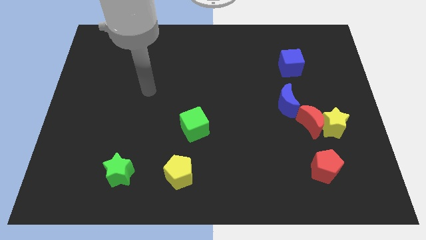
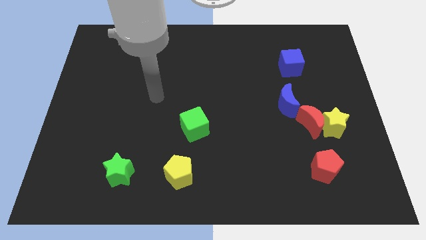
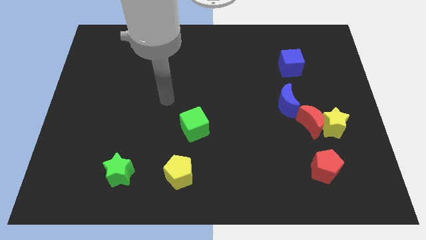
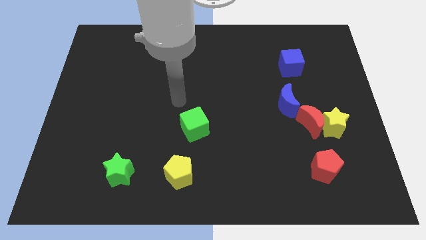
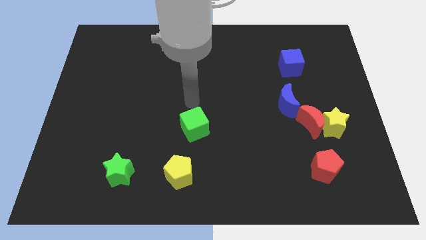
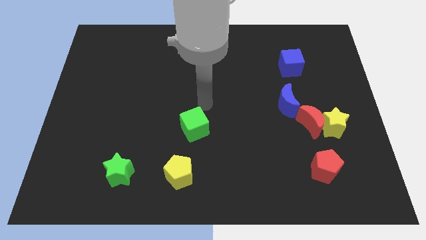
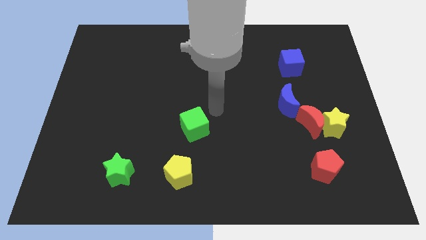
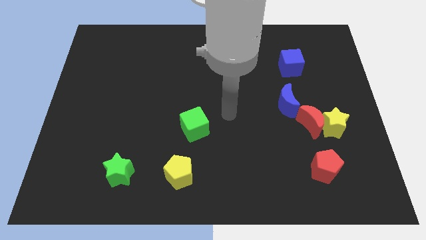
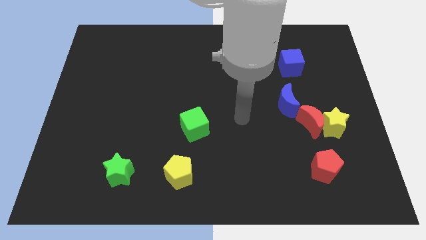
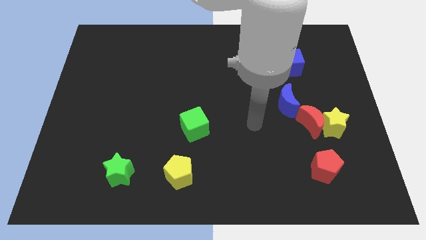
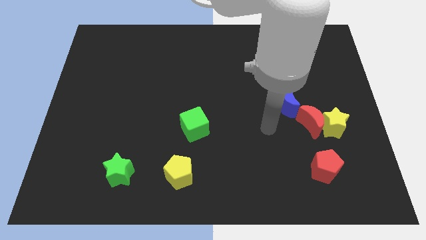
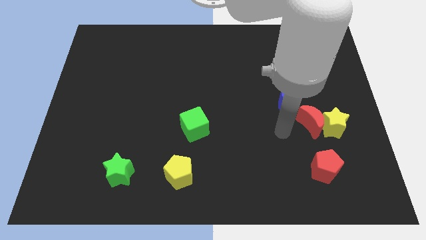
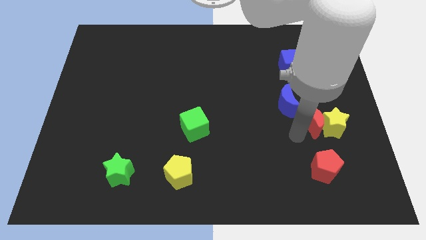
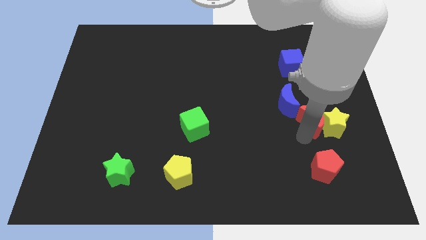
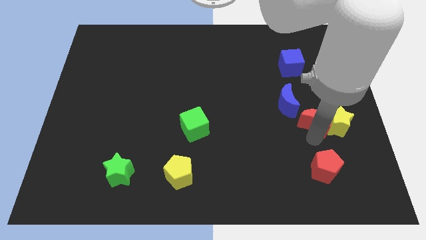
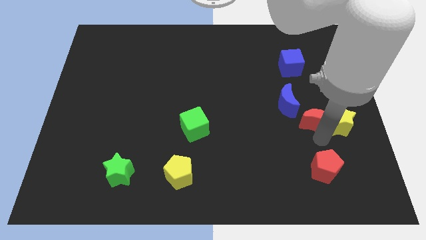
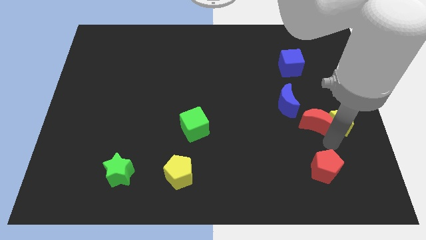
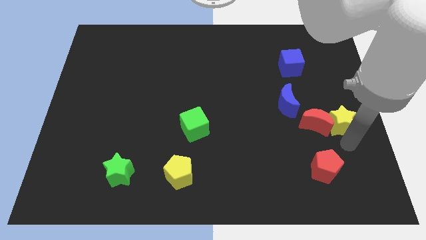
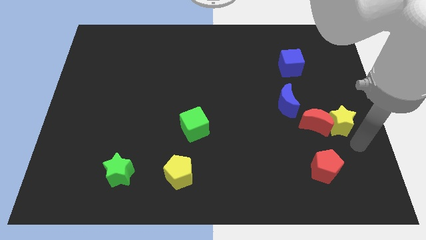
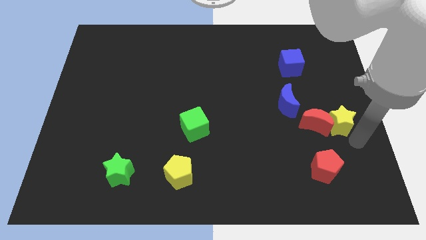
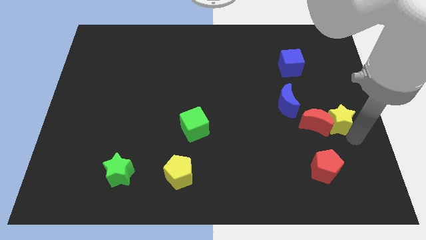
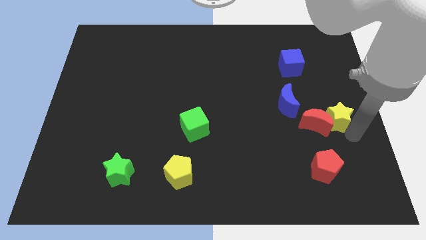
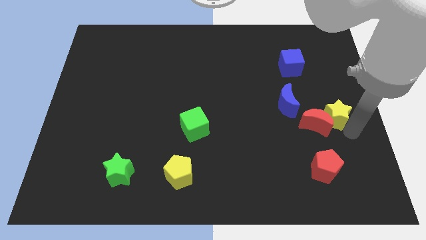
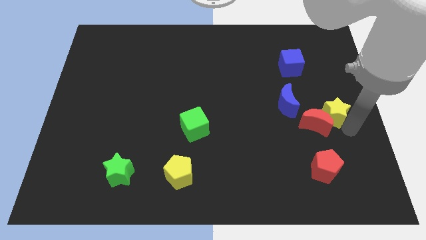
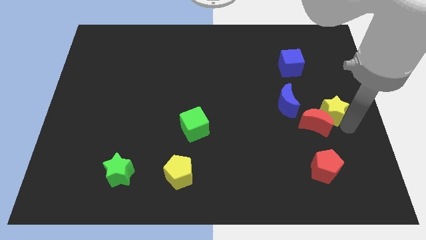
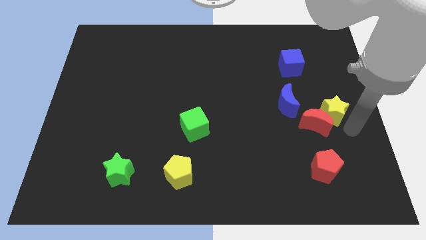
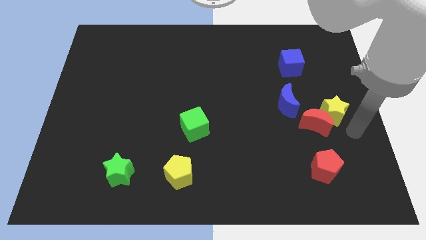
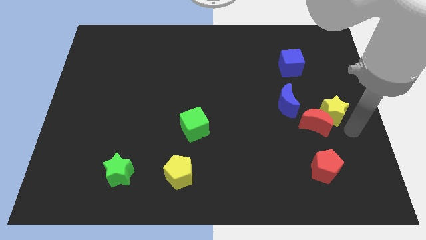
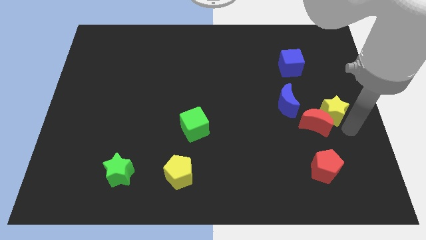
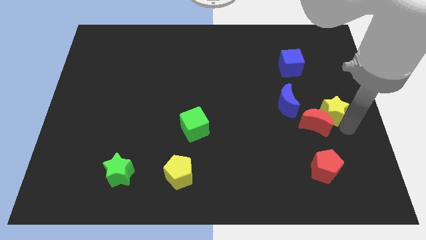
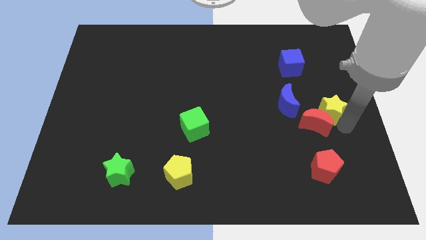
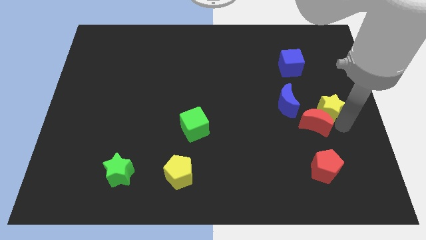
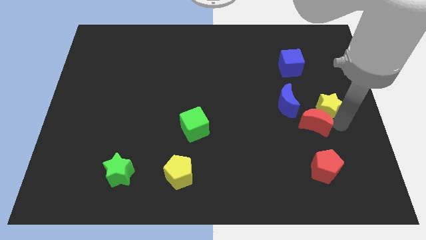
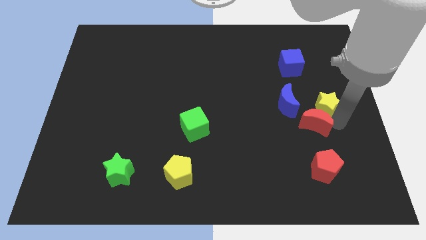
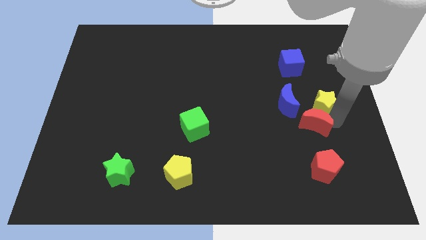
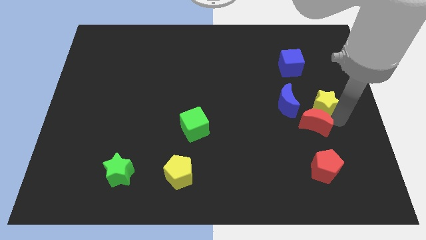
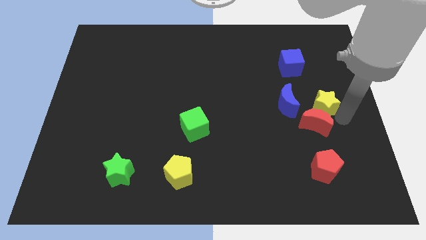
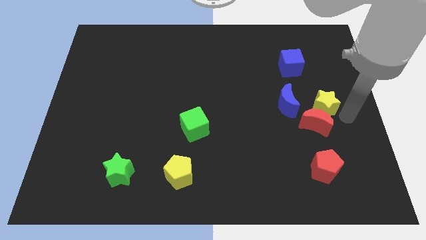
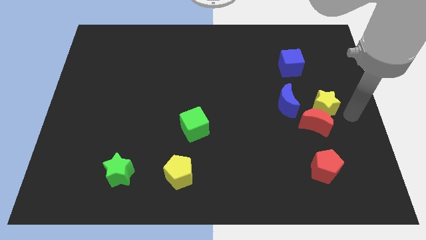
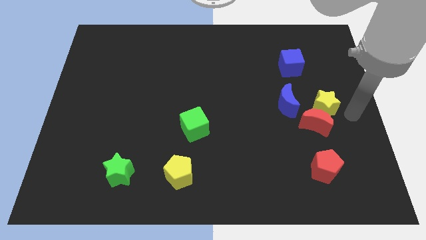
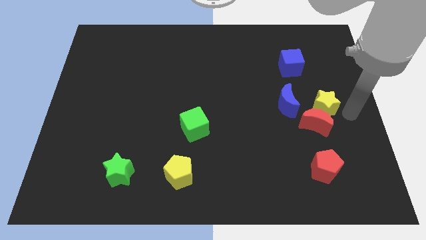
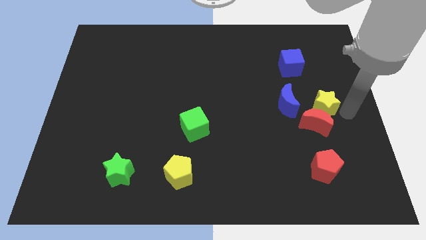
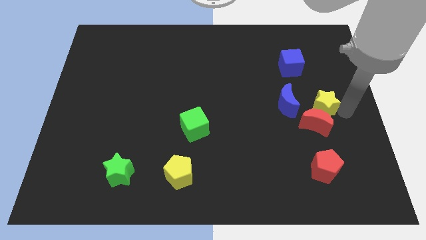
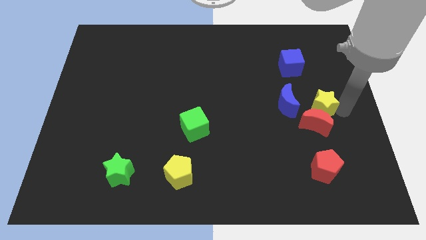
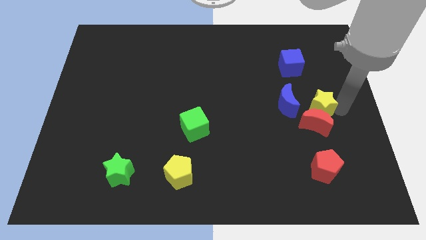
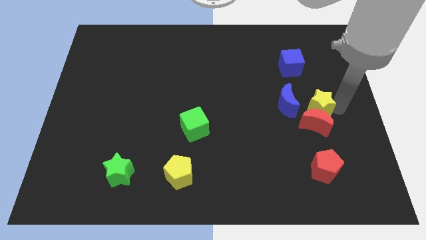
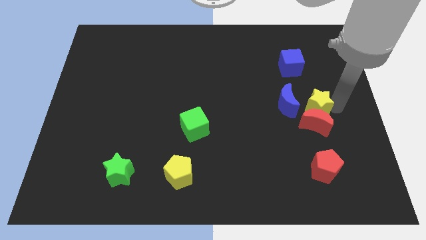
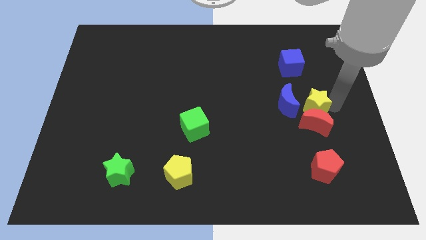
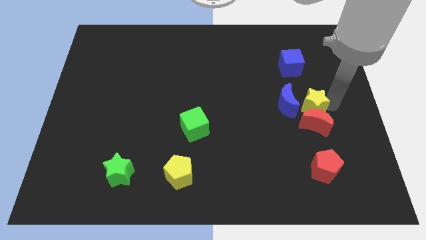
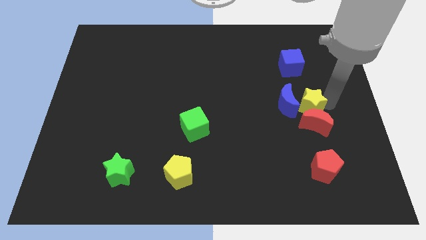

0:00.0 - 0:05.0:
move the yellow star towards the blue moon

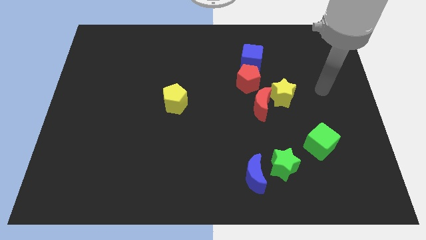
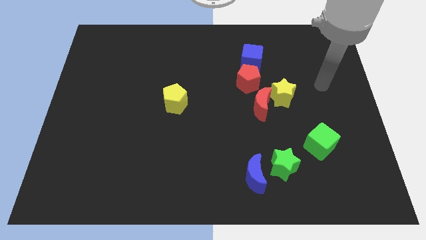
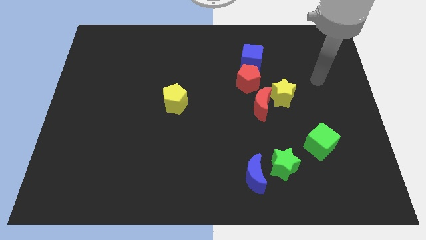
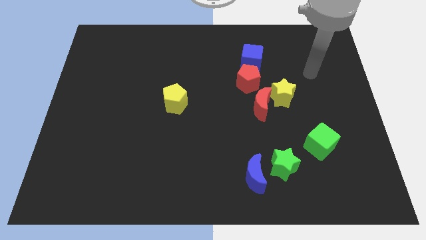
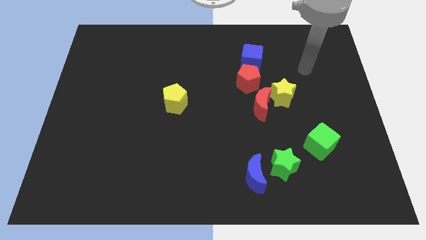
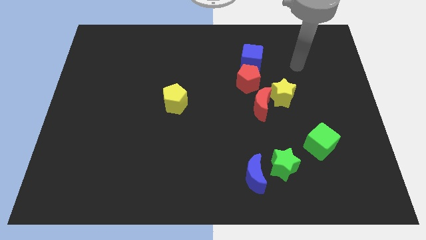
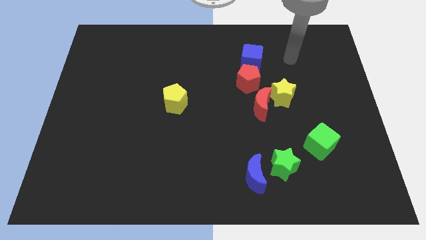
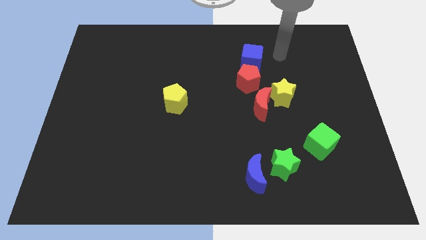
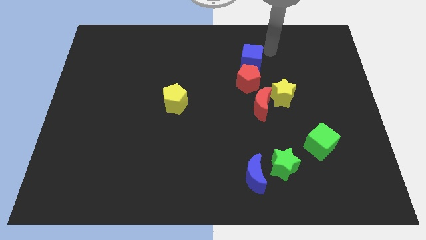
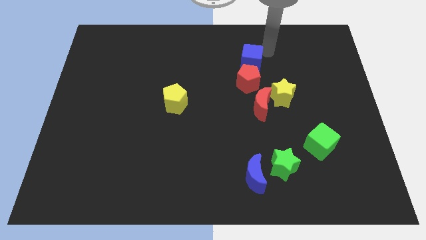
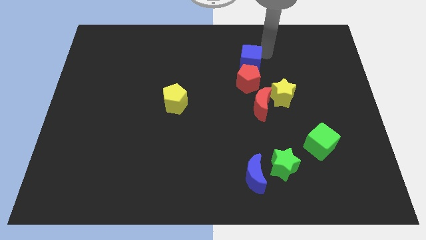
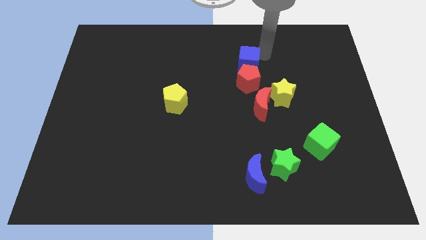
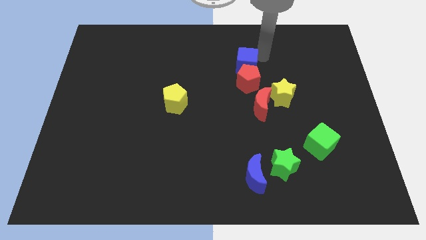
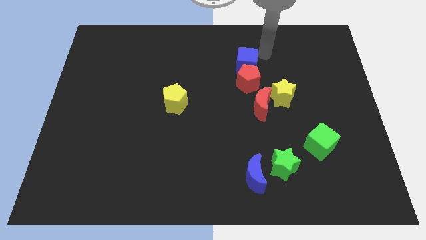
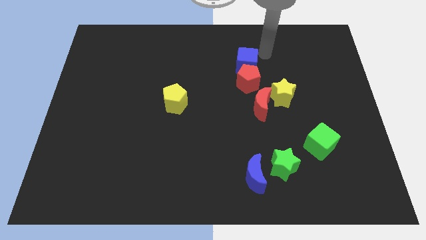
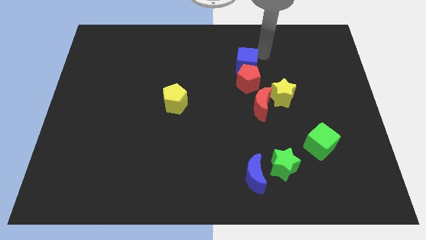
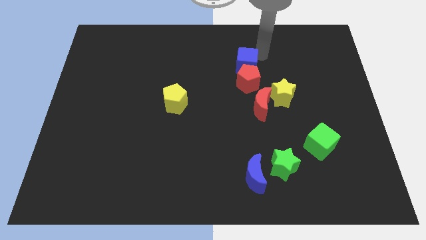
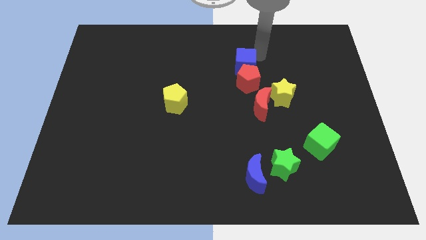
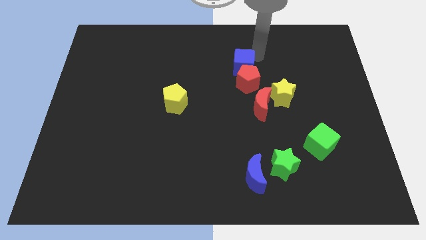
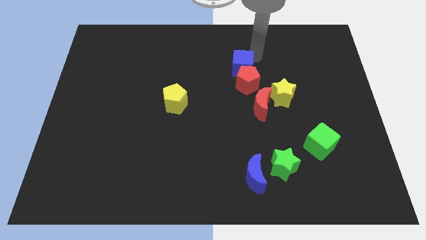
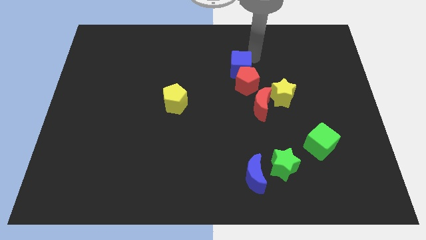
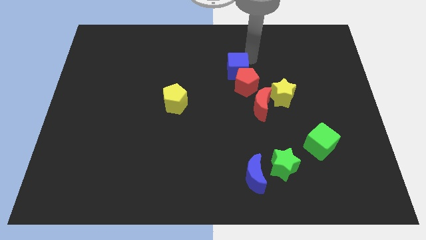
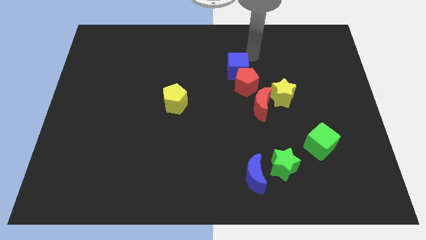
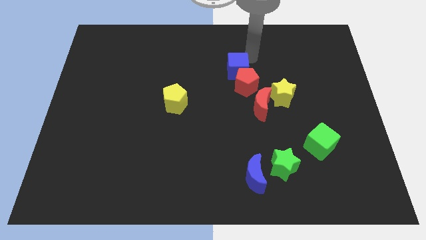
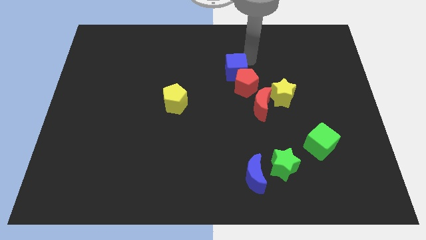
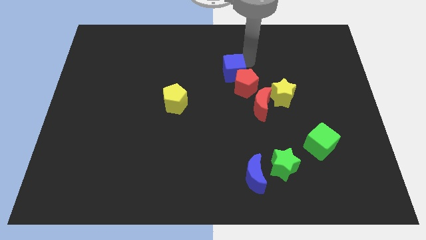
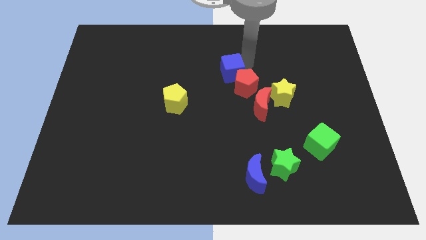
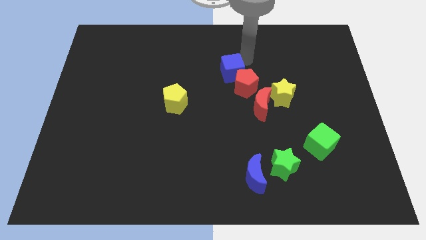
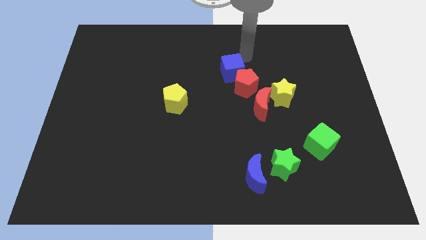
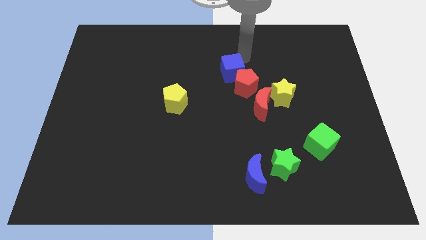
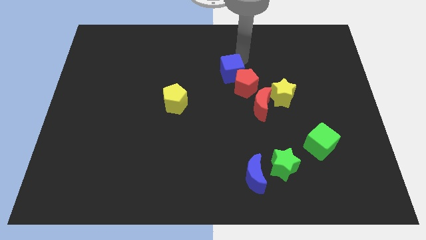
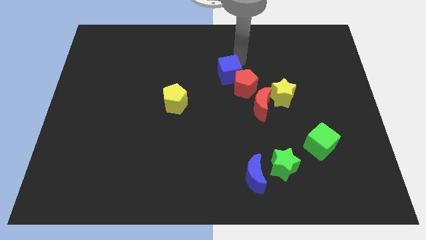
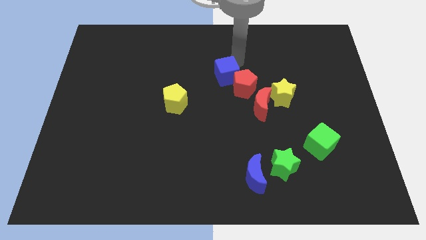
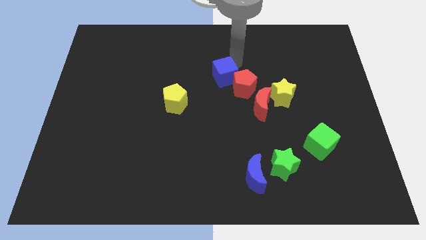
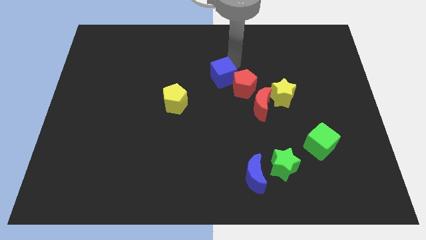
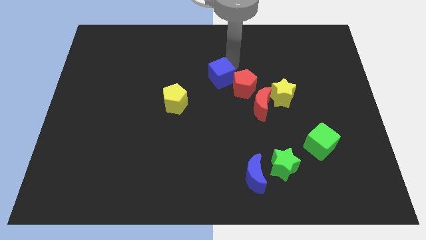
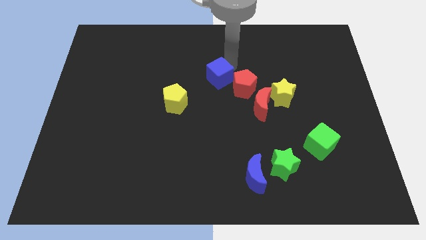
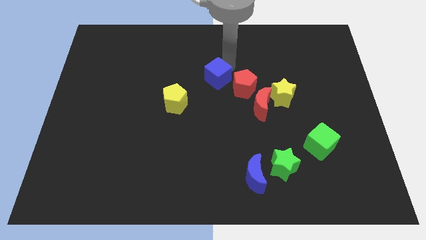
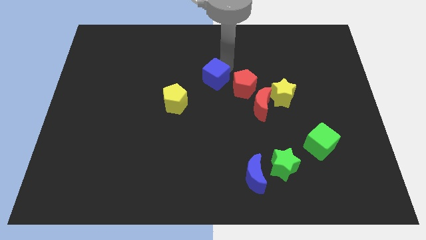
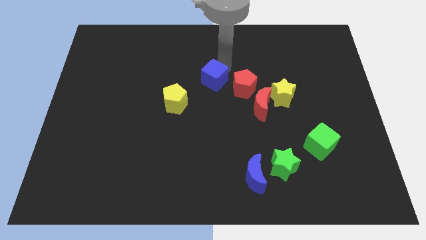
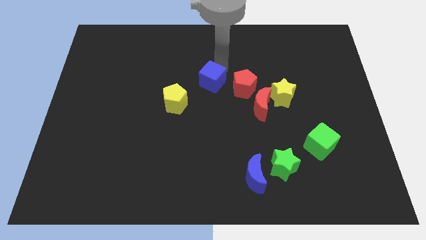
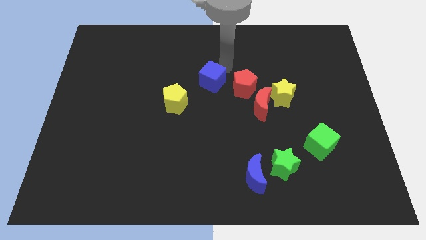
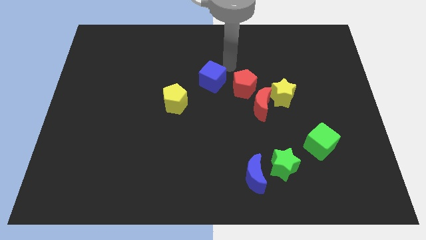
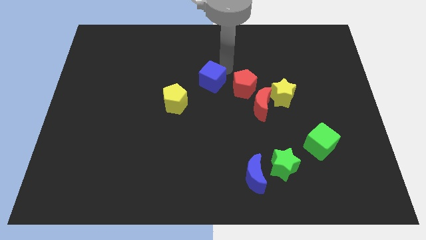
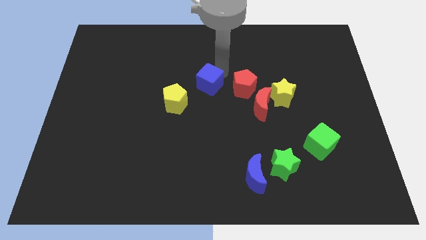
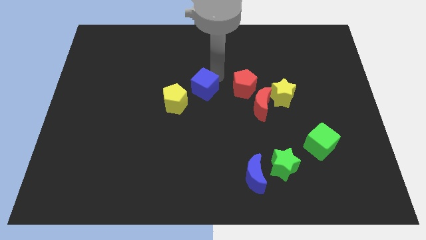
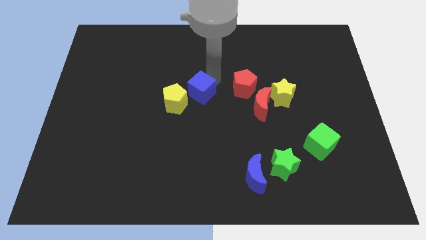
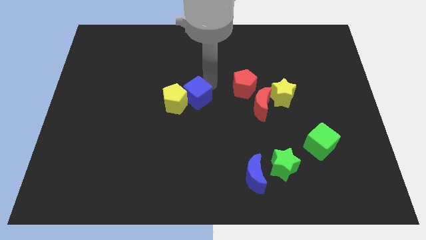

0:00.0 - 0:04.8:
slide the blue cube towards the yellow pentagon
